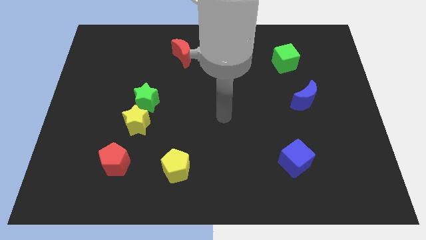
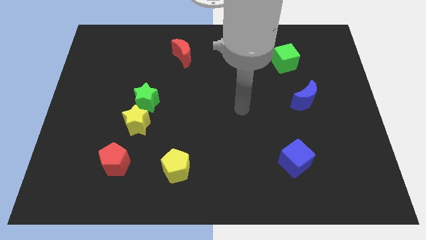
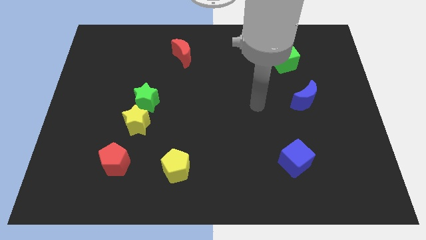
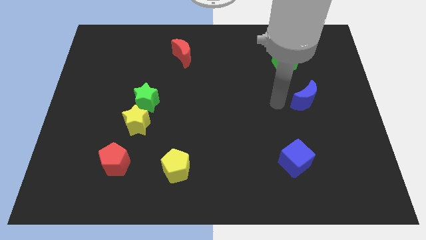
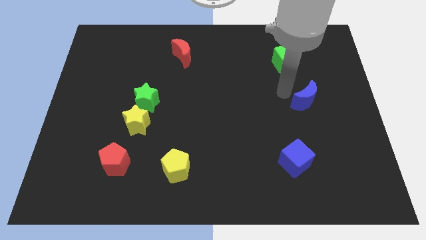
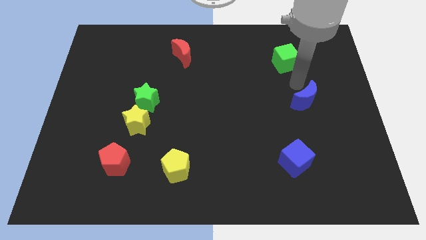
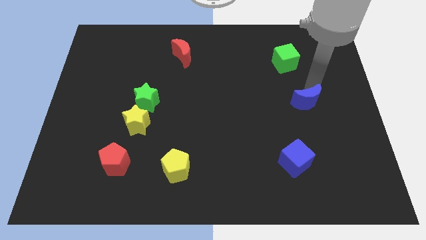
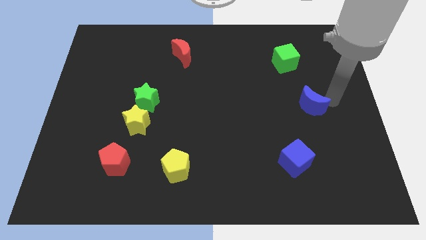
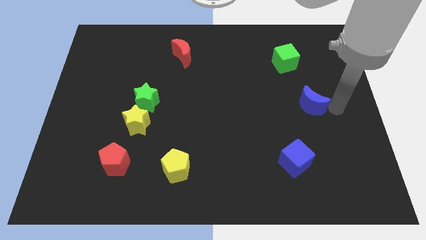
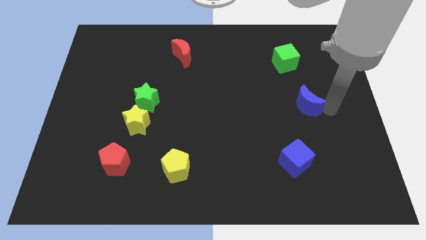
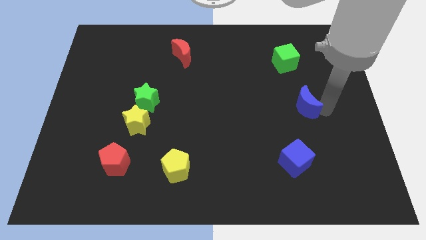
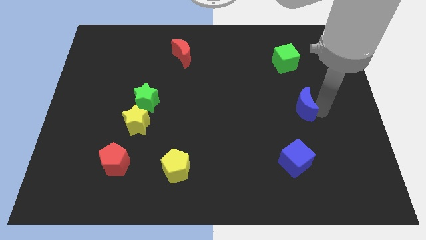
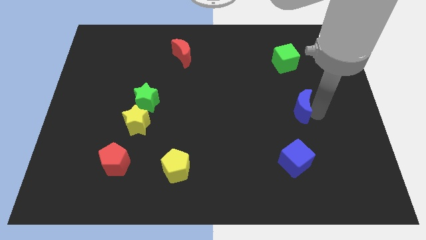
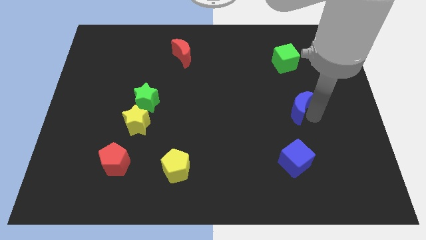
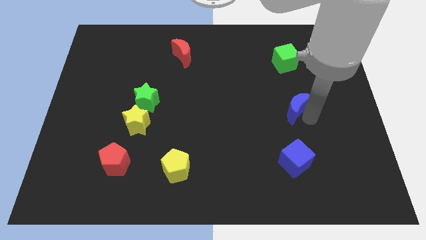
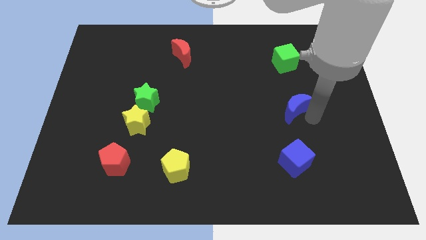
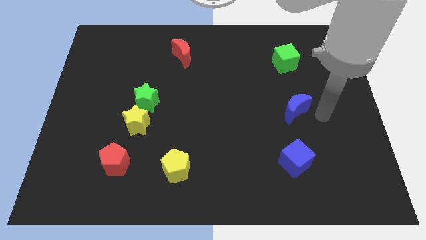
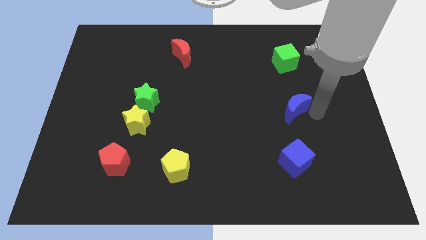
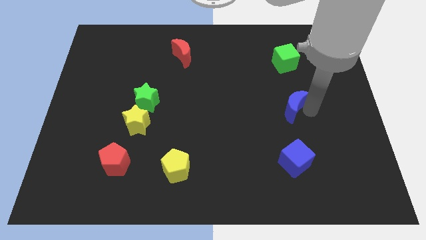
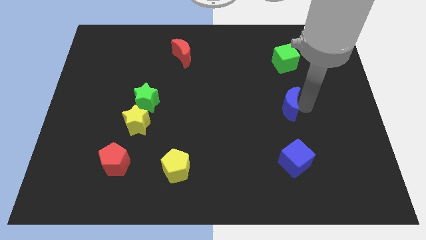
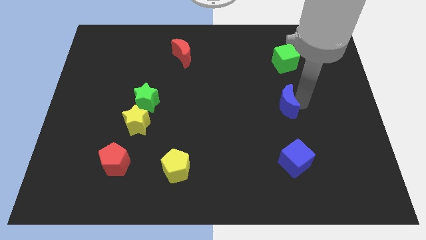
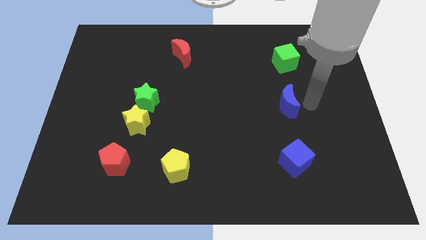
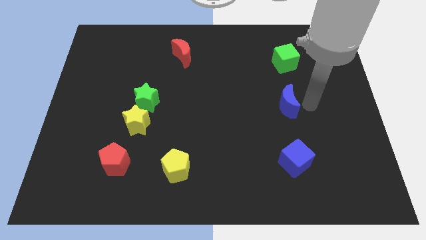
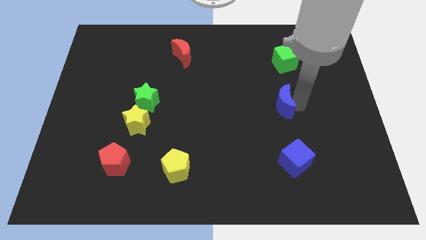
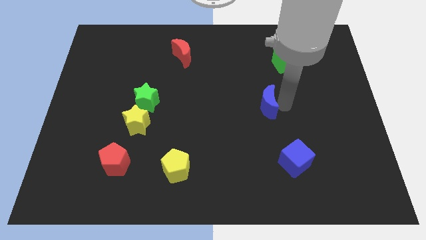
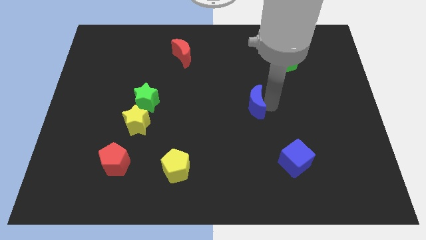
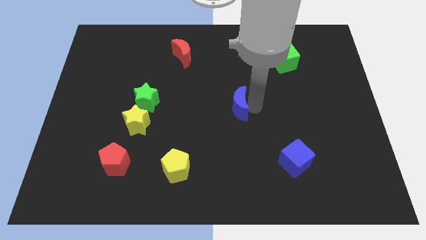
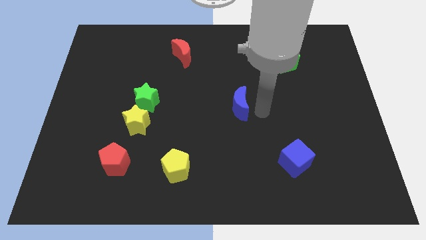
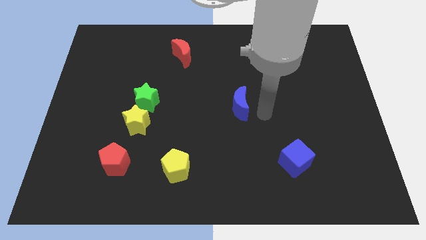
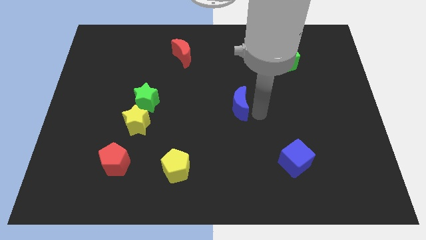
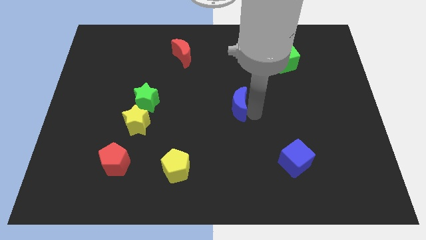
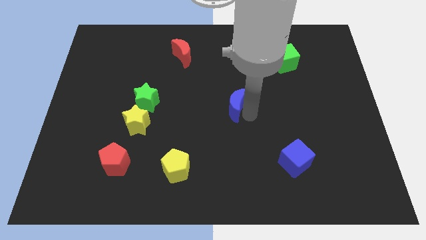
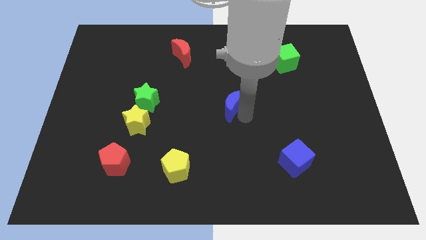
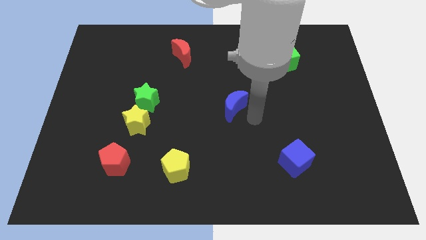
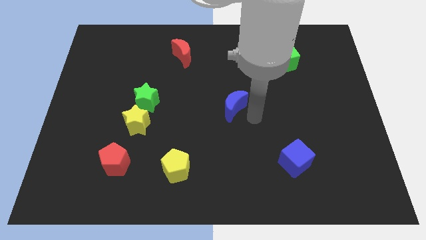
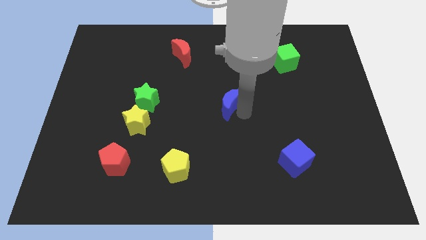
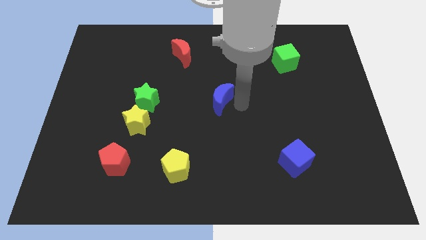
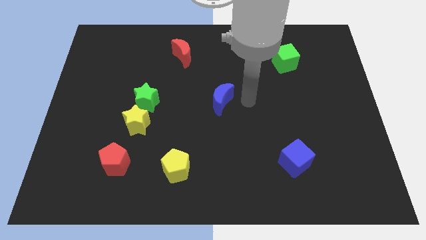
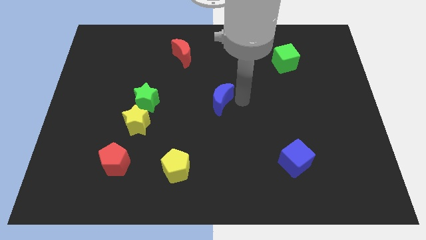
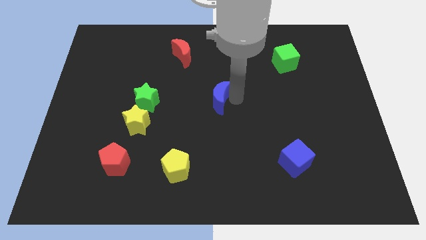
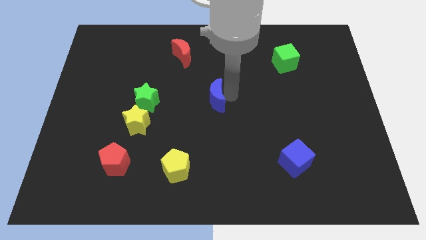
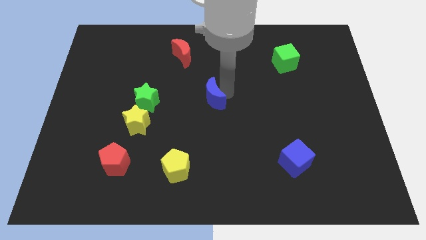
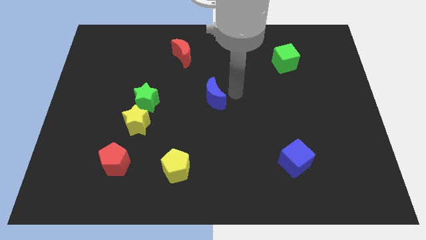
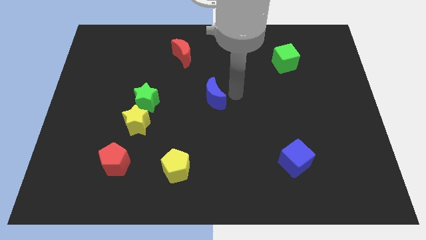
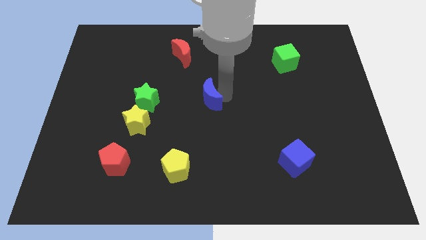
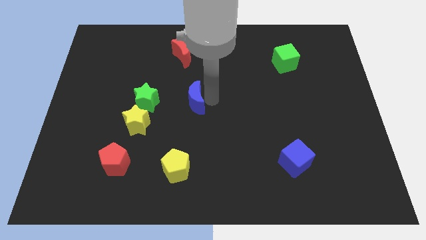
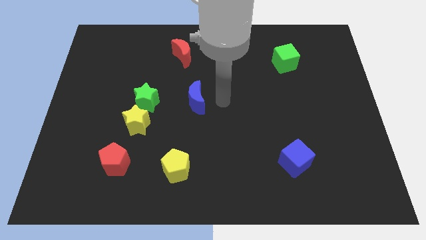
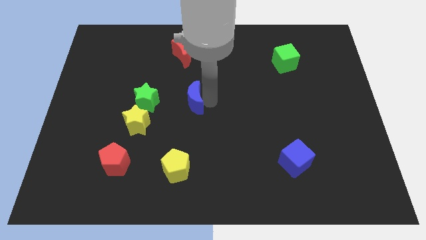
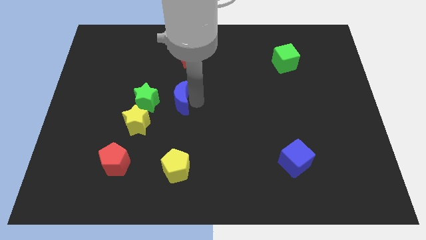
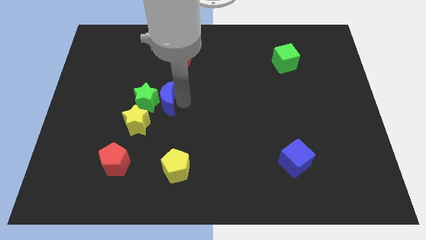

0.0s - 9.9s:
slide the blue moon towards the green star

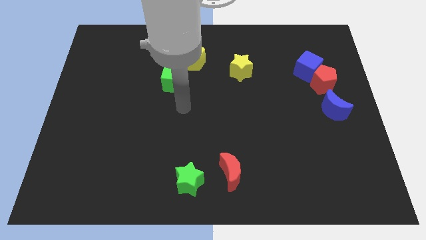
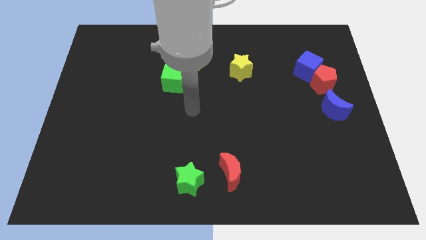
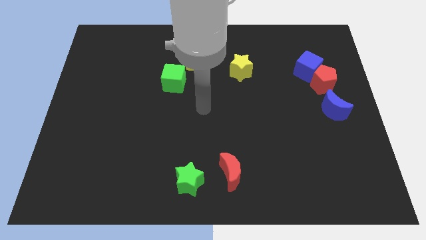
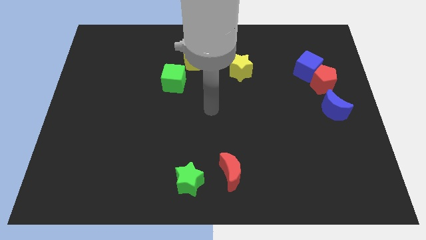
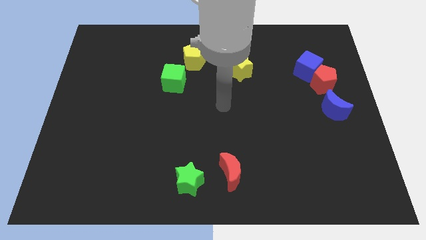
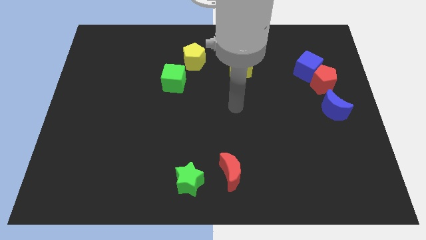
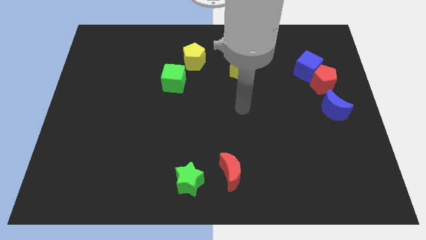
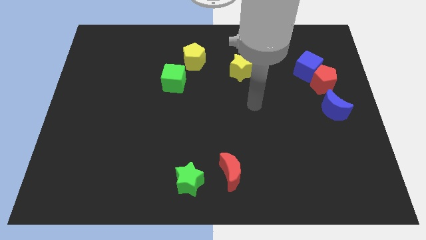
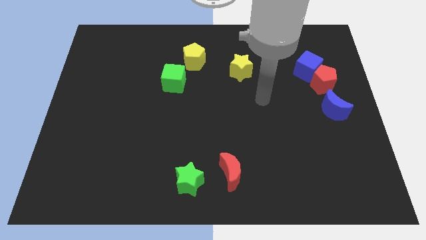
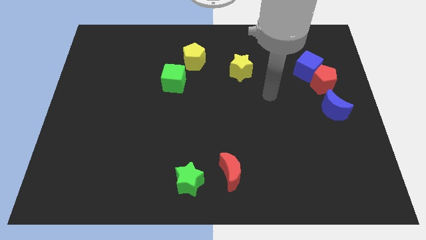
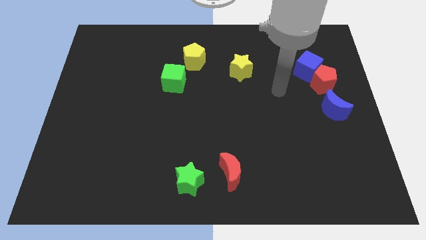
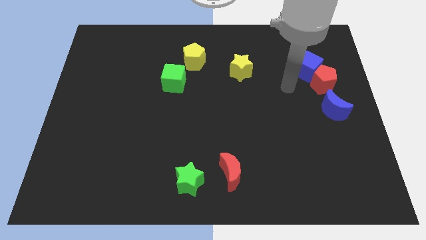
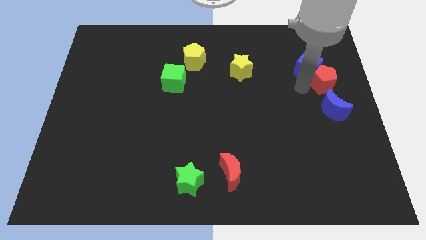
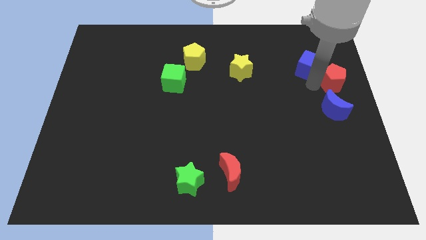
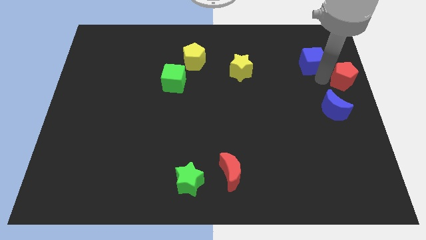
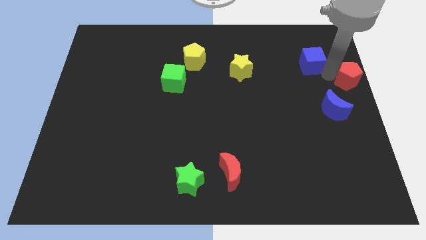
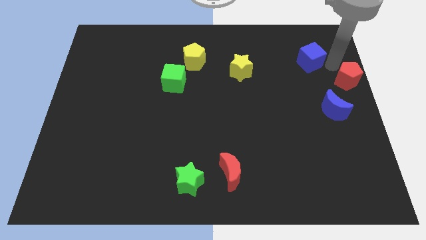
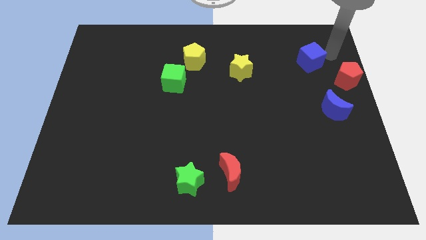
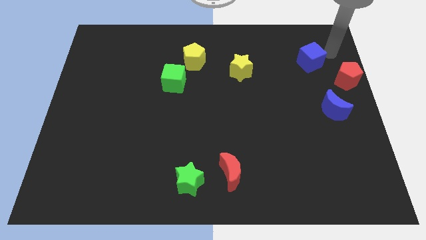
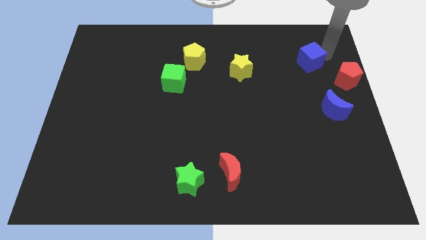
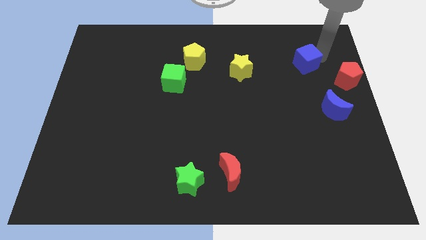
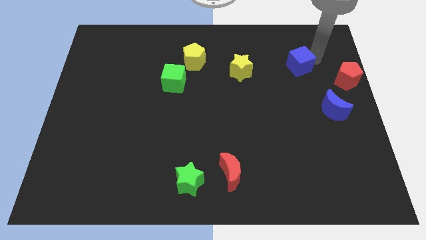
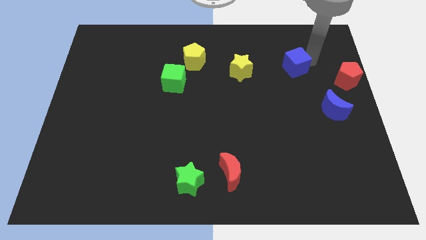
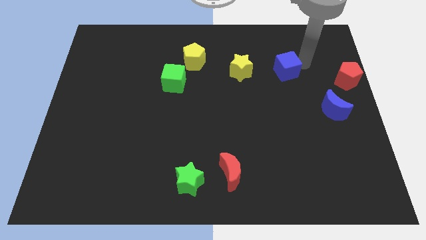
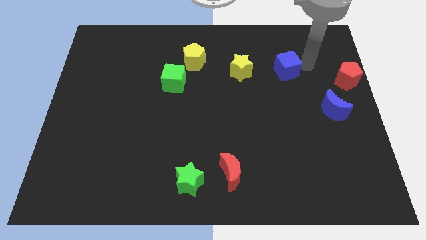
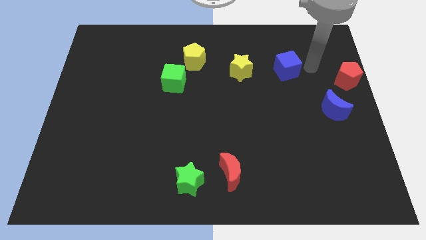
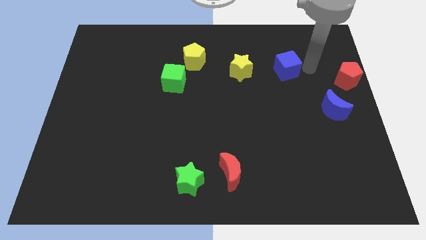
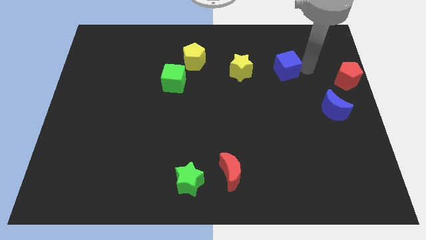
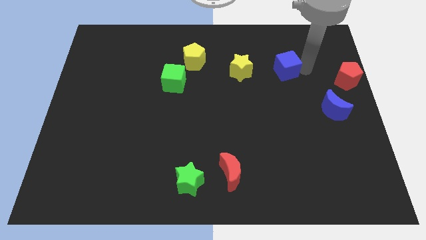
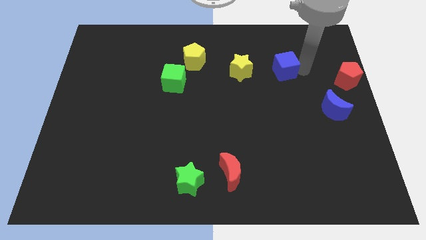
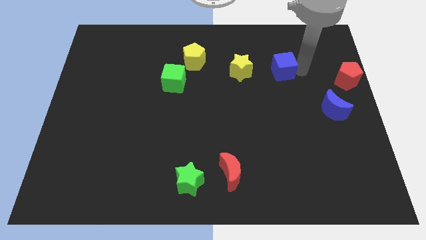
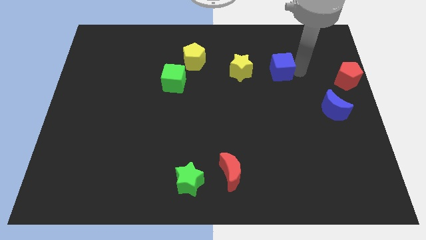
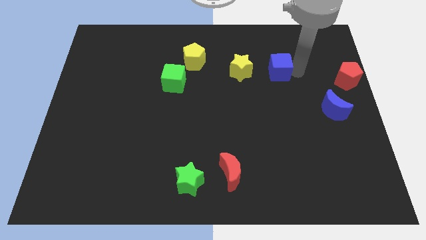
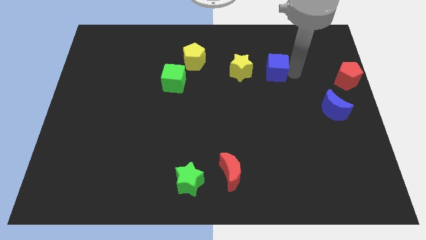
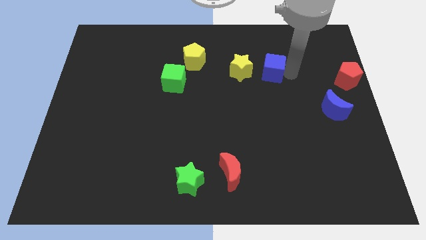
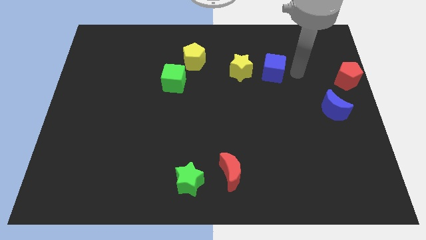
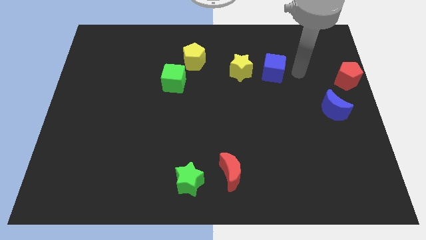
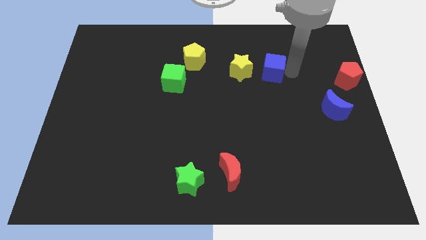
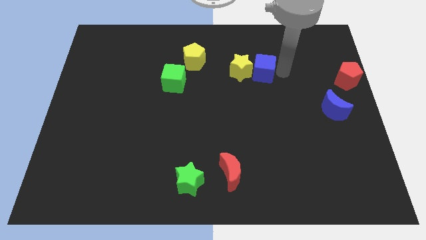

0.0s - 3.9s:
push the blue cube towards the yellow star
